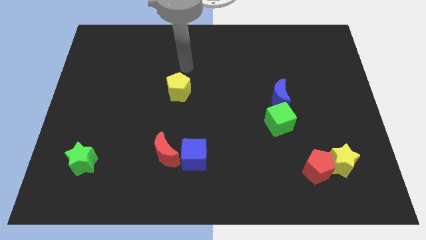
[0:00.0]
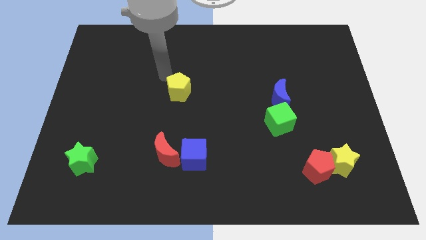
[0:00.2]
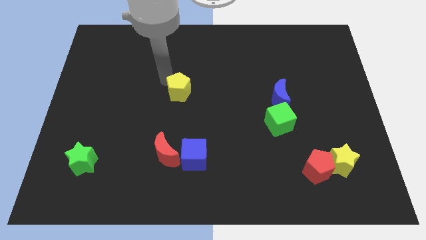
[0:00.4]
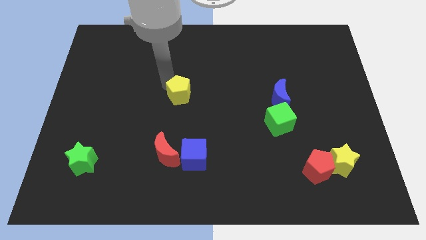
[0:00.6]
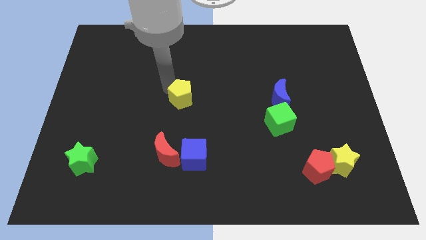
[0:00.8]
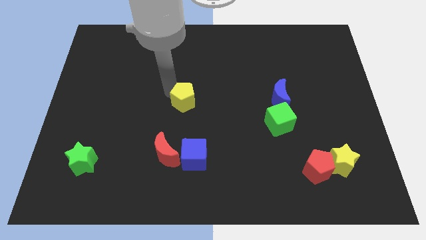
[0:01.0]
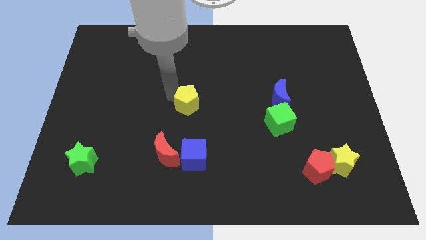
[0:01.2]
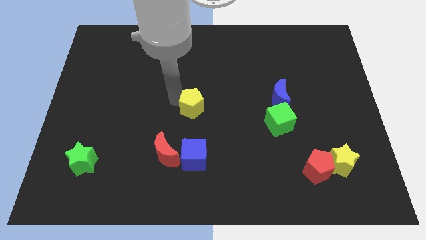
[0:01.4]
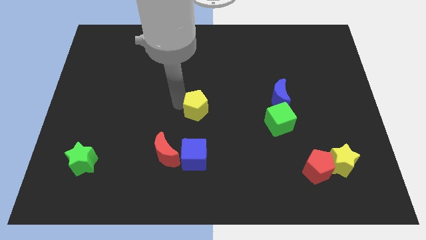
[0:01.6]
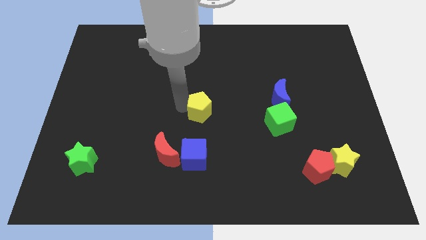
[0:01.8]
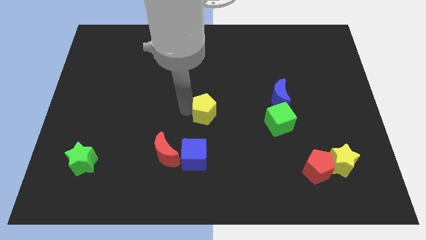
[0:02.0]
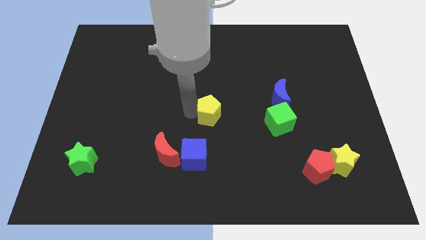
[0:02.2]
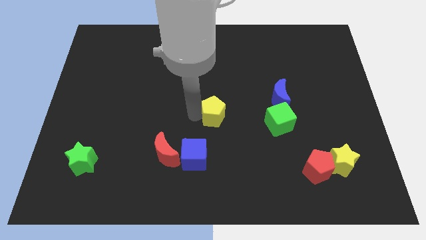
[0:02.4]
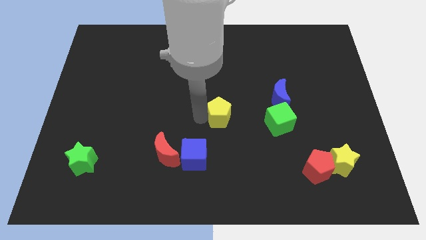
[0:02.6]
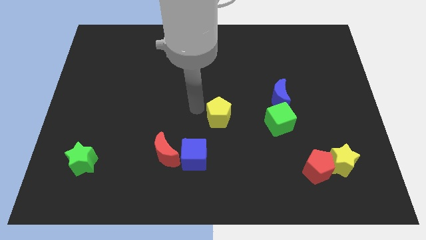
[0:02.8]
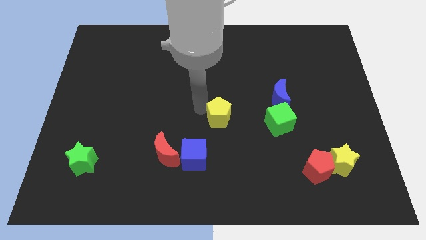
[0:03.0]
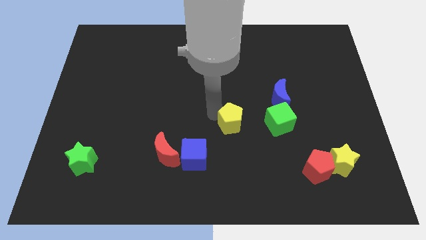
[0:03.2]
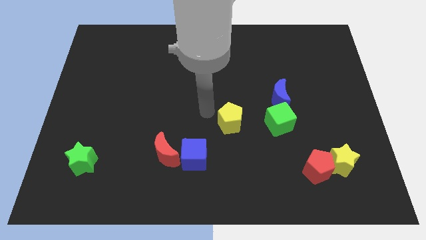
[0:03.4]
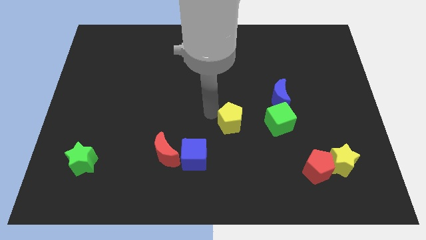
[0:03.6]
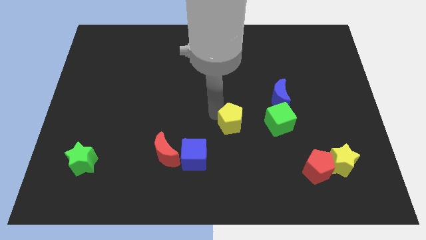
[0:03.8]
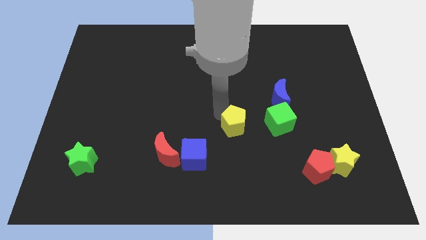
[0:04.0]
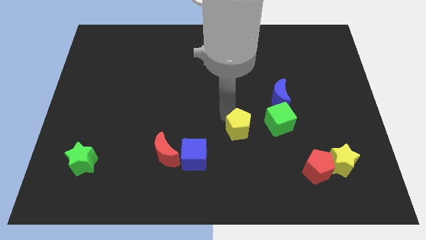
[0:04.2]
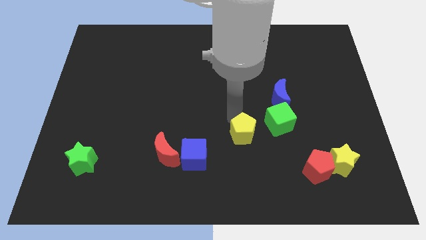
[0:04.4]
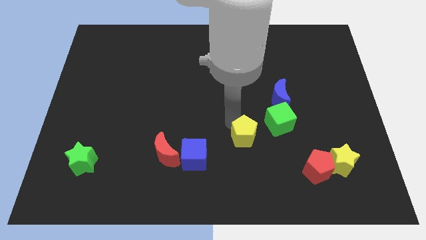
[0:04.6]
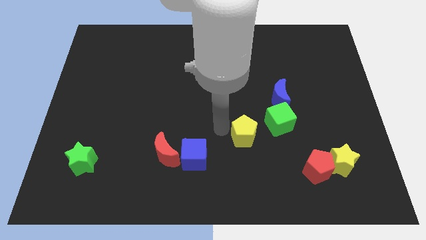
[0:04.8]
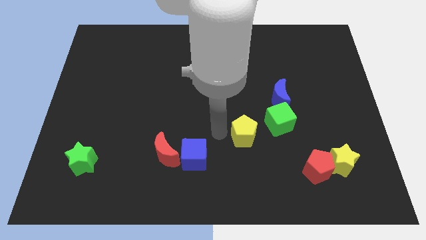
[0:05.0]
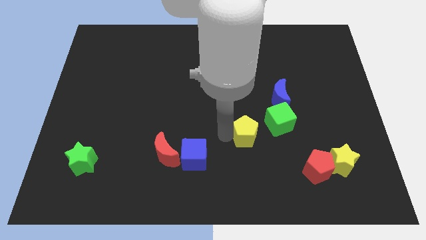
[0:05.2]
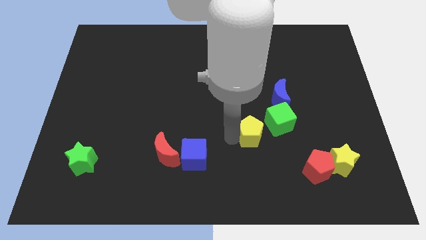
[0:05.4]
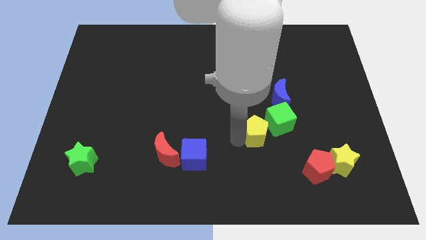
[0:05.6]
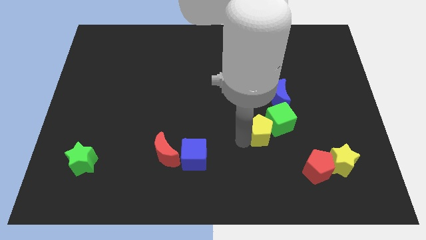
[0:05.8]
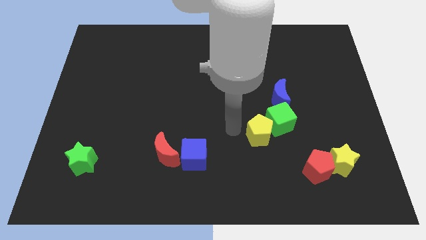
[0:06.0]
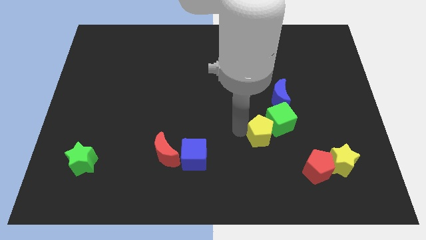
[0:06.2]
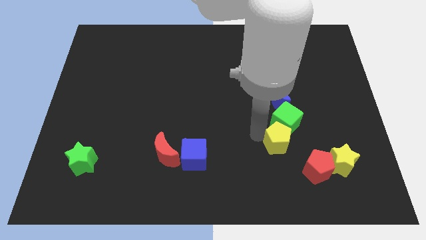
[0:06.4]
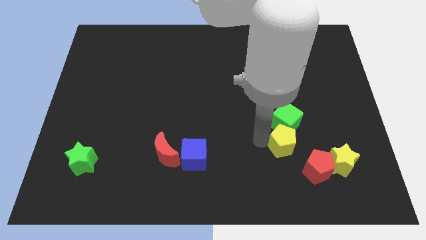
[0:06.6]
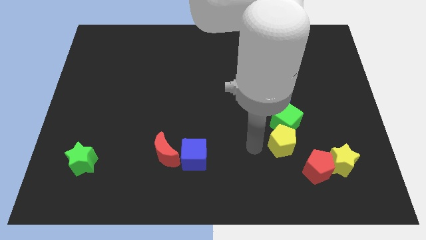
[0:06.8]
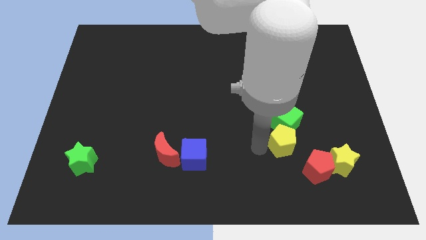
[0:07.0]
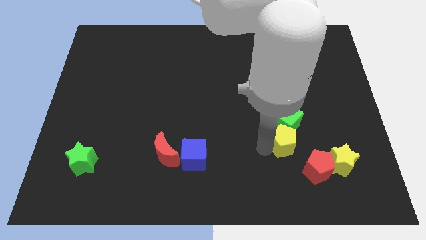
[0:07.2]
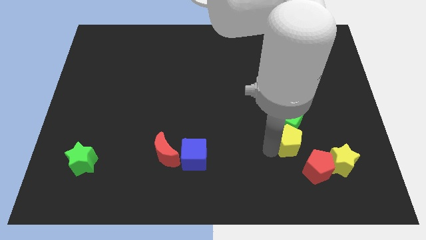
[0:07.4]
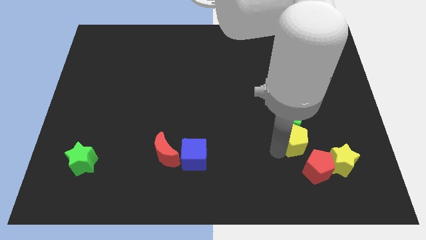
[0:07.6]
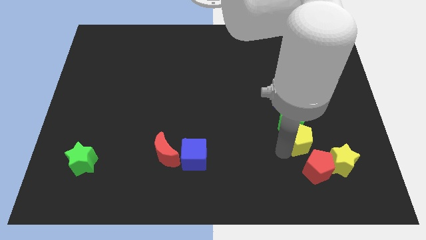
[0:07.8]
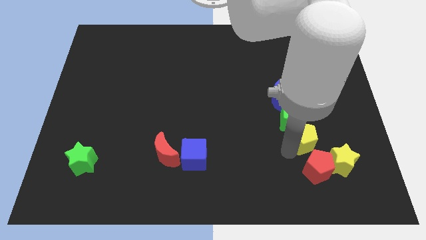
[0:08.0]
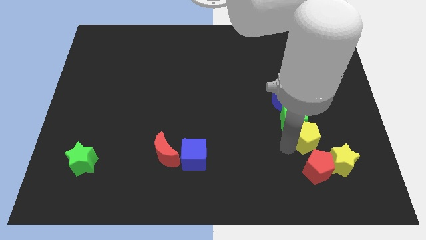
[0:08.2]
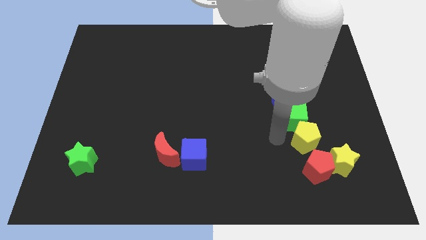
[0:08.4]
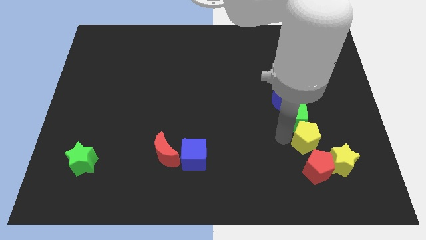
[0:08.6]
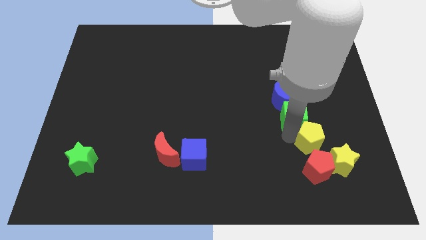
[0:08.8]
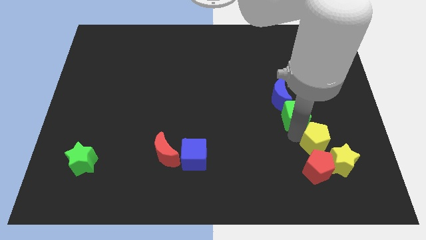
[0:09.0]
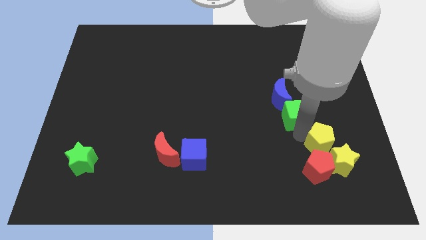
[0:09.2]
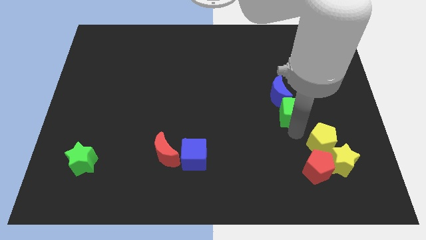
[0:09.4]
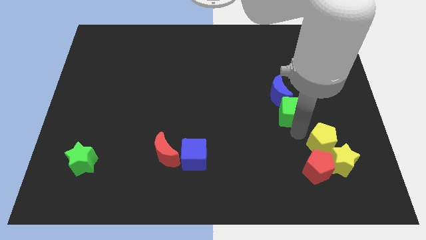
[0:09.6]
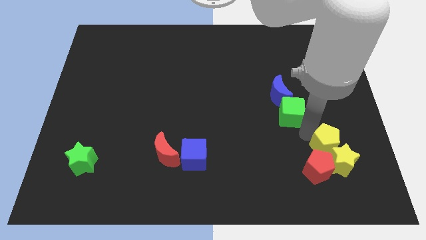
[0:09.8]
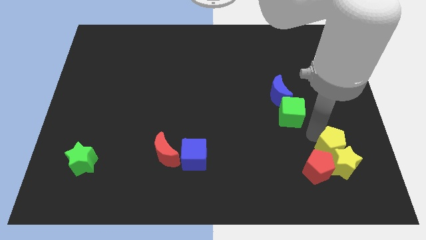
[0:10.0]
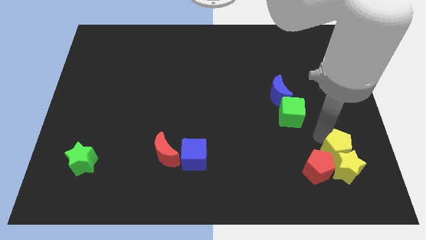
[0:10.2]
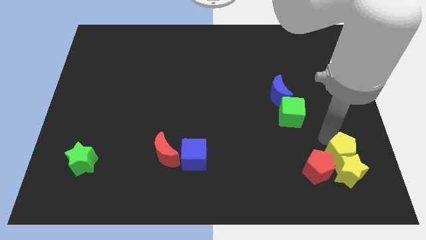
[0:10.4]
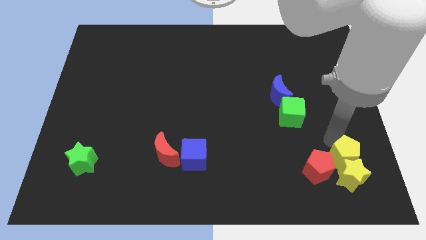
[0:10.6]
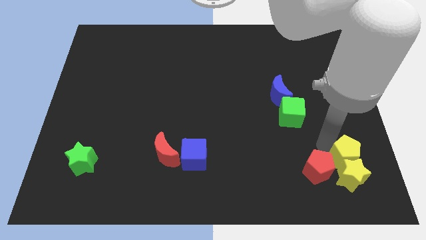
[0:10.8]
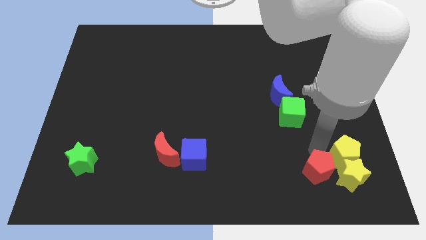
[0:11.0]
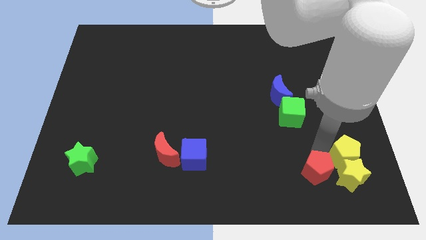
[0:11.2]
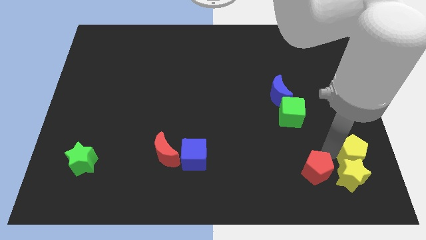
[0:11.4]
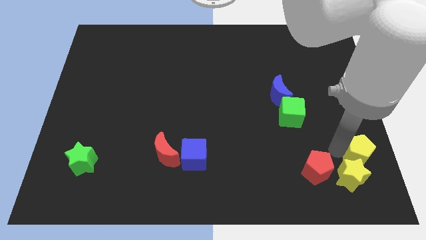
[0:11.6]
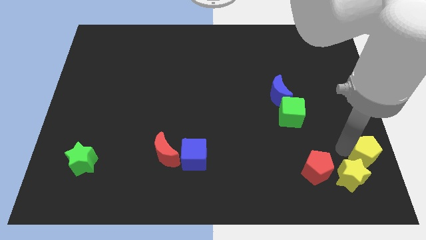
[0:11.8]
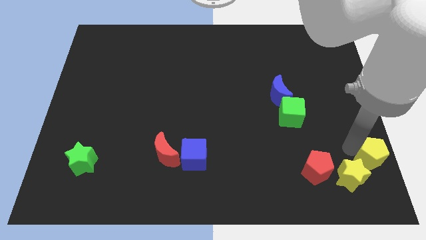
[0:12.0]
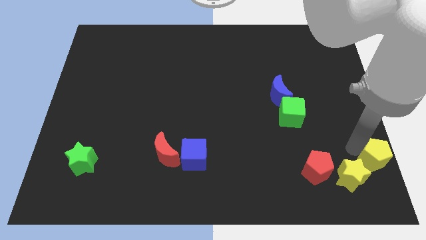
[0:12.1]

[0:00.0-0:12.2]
put the yellow pentagon to the bottom right corner
